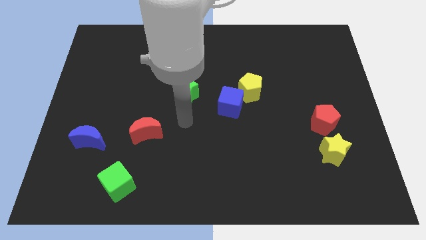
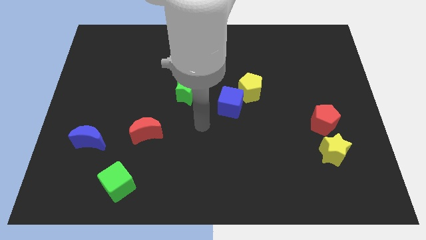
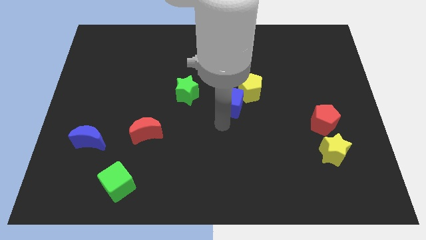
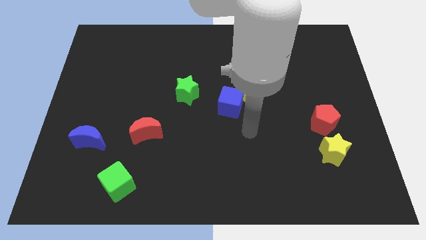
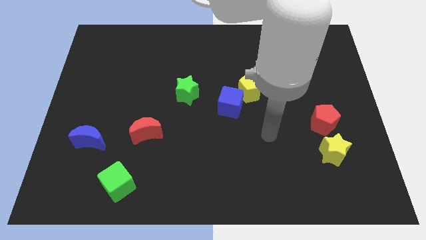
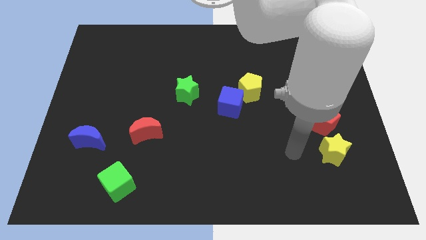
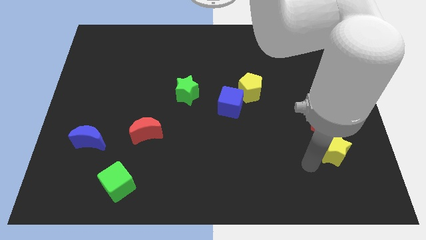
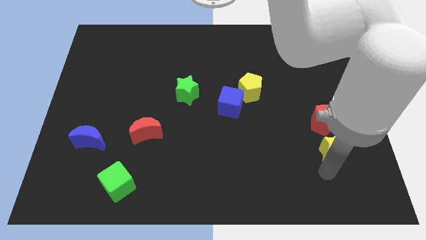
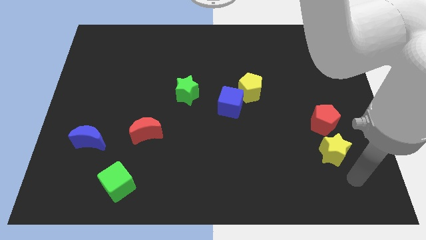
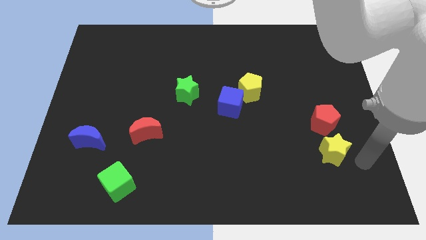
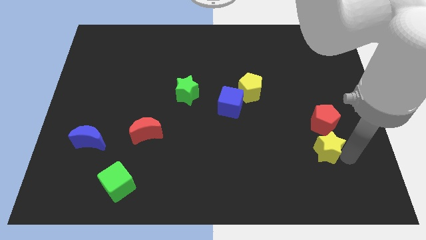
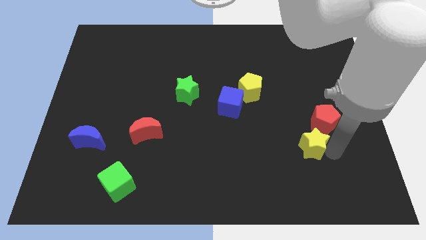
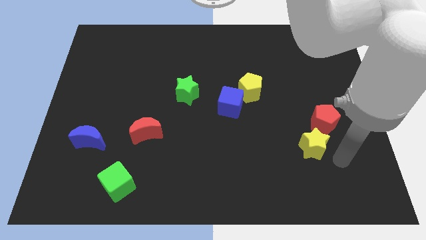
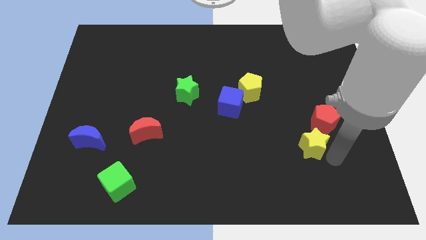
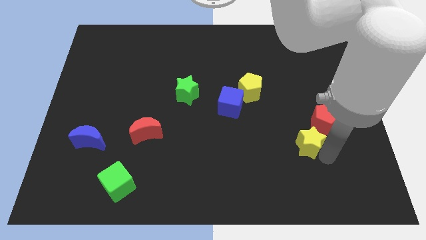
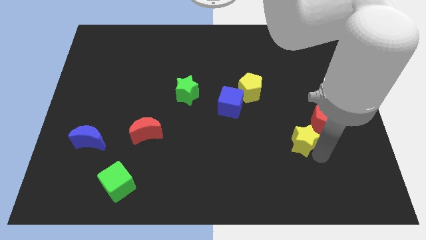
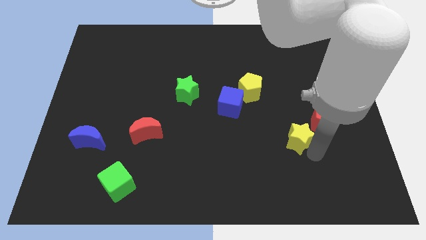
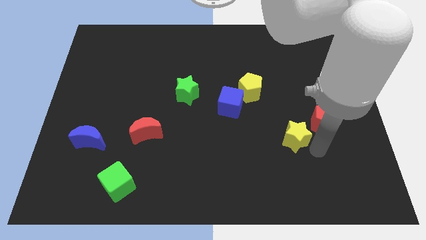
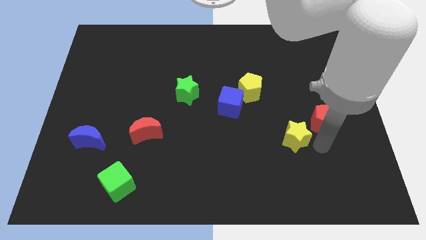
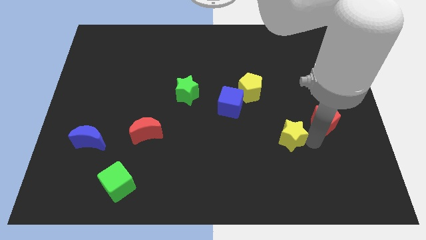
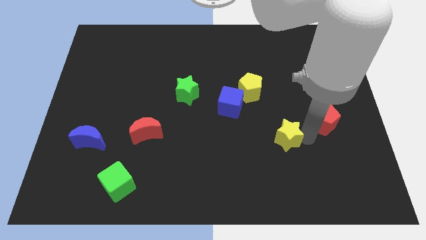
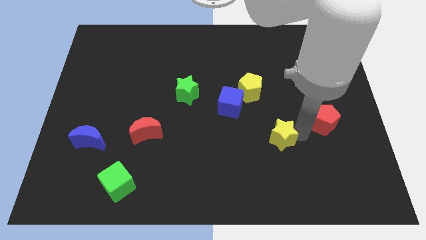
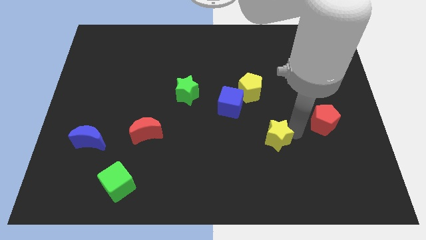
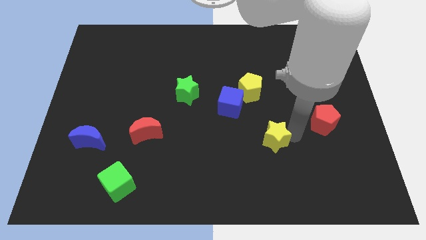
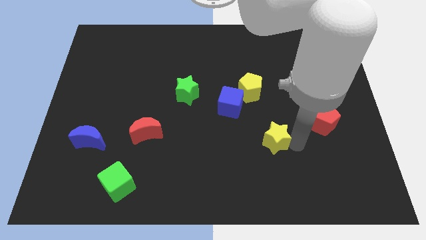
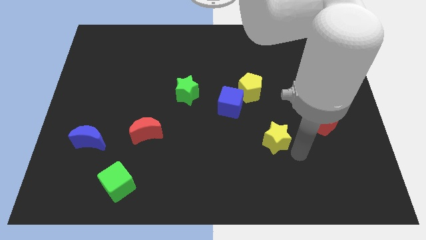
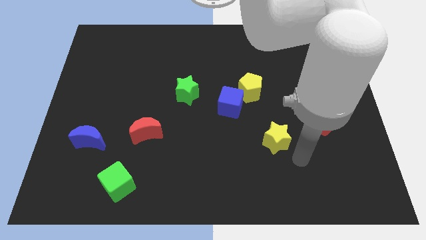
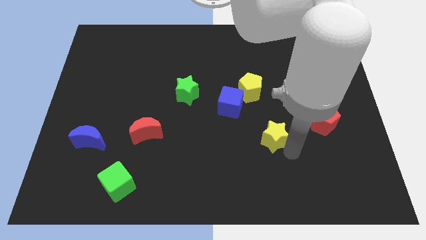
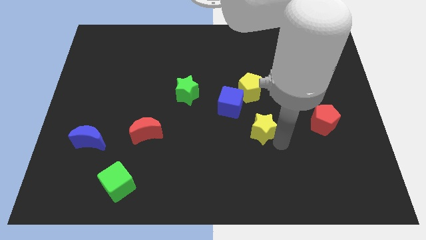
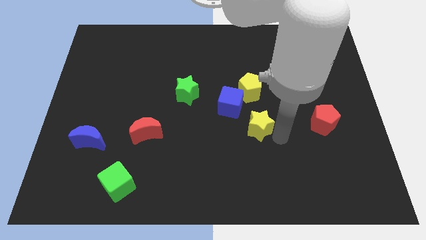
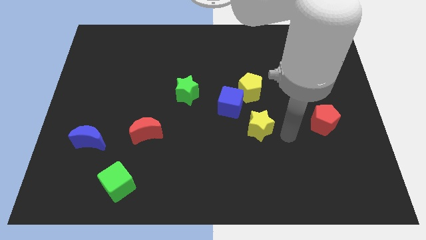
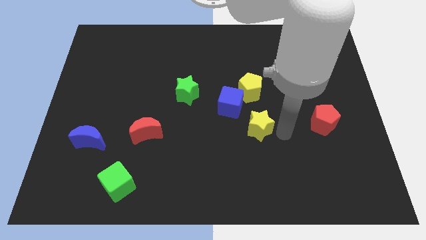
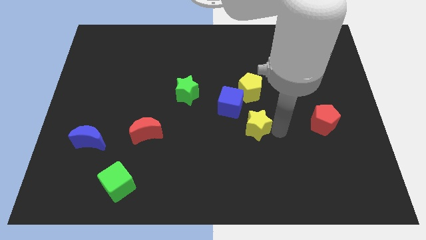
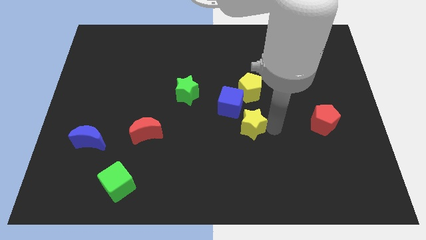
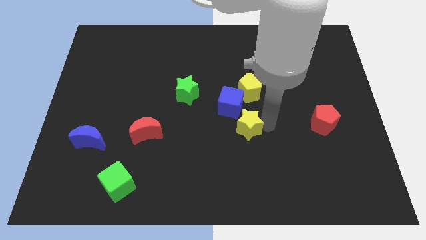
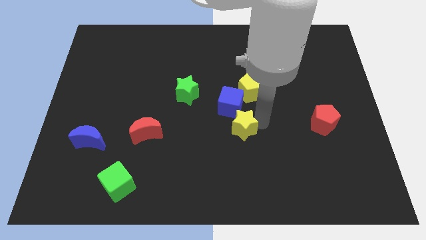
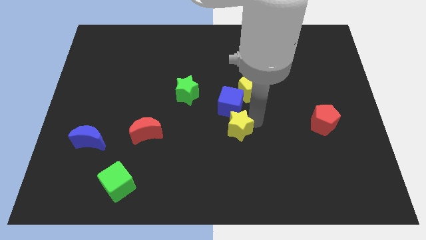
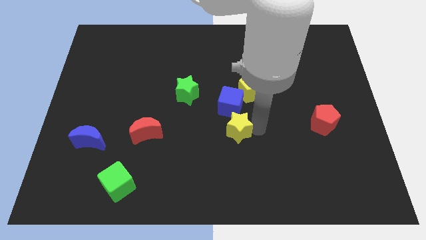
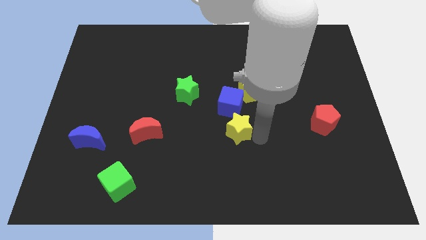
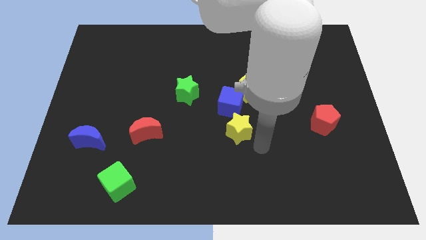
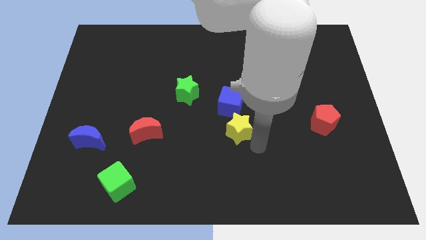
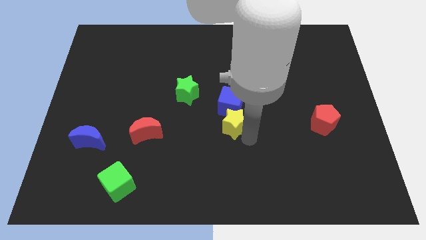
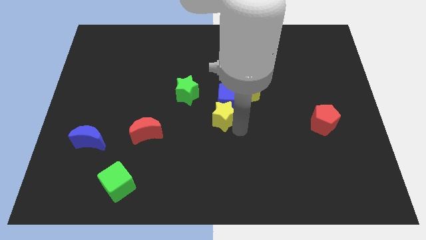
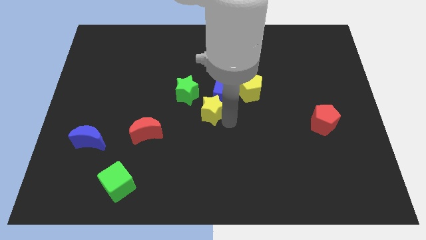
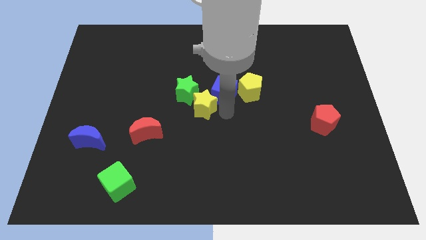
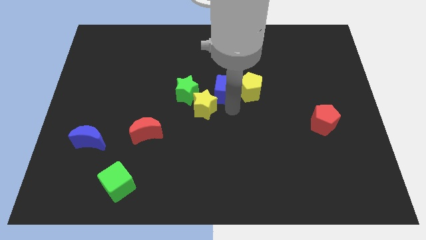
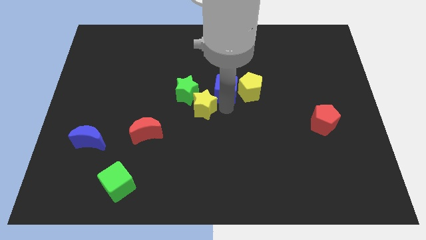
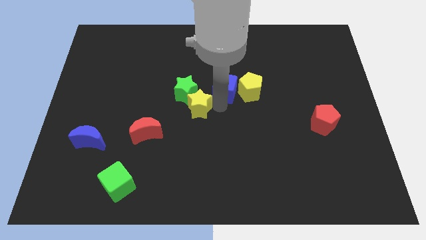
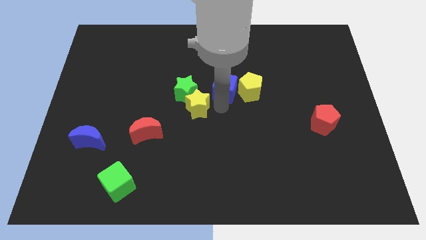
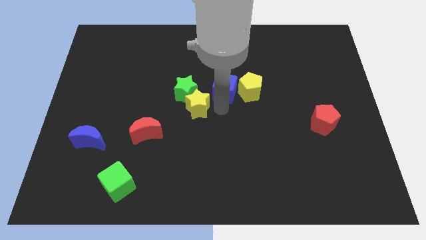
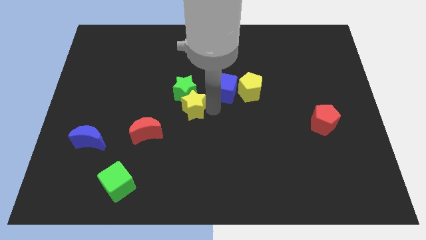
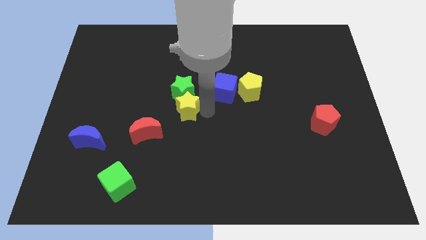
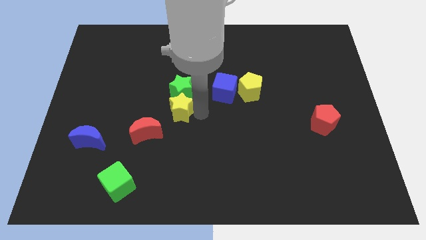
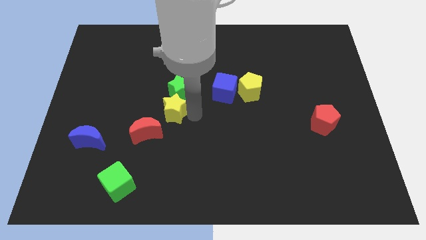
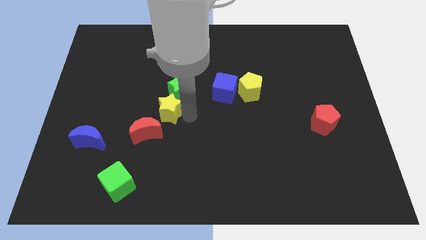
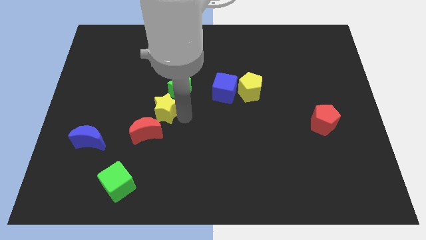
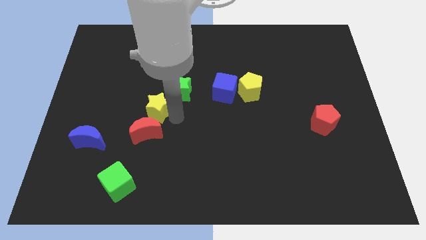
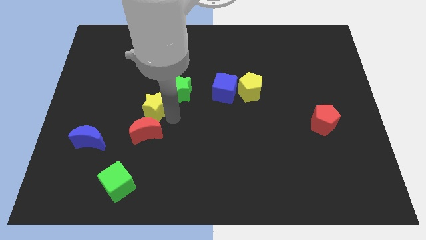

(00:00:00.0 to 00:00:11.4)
put the yellow star left of the green star
